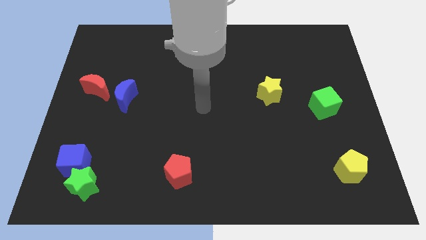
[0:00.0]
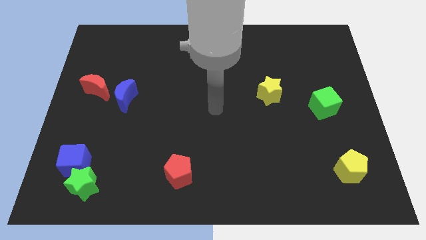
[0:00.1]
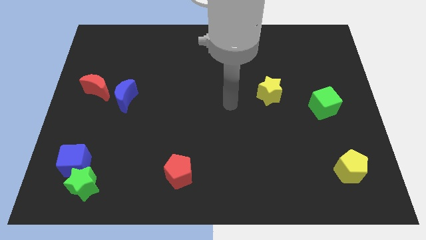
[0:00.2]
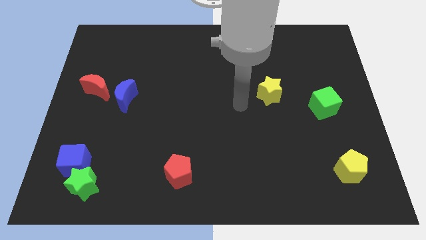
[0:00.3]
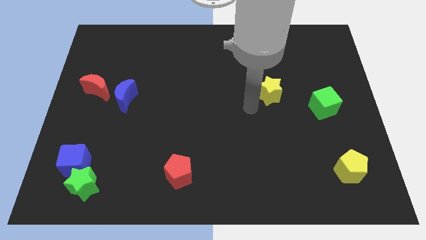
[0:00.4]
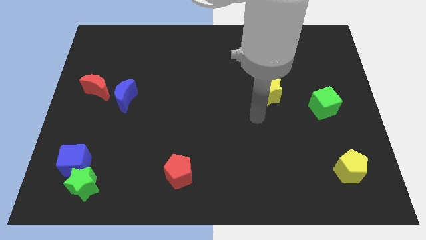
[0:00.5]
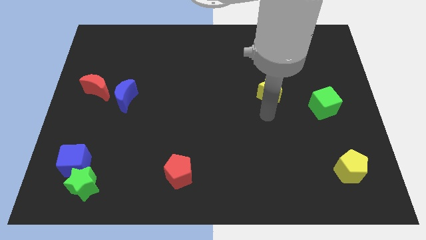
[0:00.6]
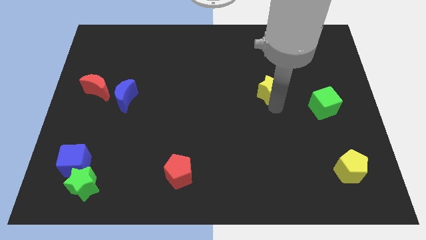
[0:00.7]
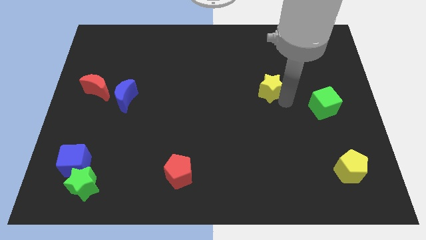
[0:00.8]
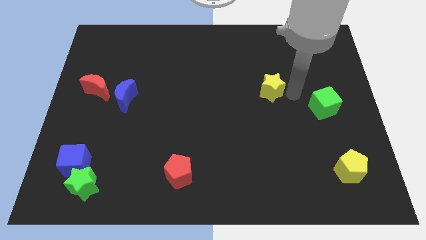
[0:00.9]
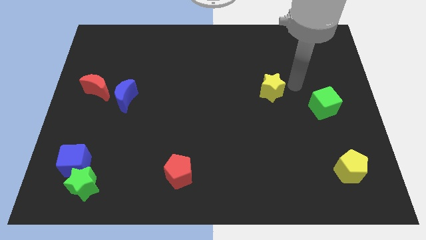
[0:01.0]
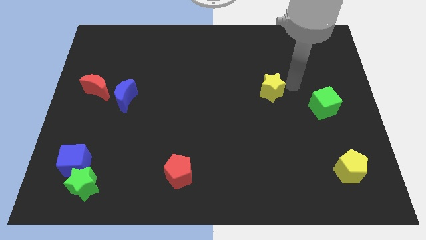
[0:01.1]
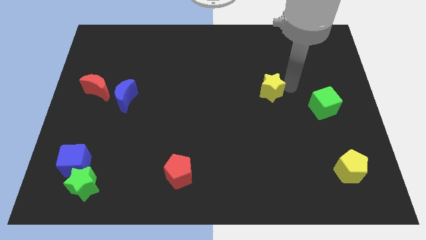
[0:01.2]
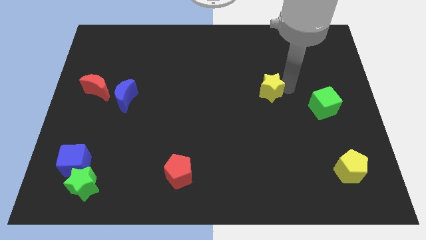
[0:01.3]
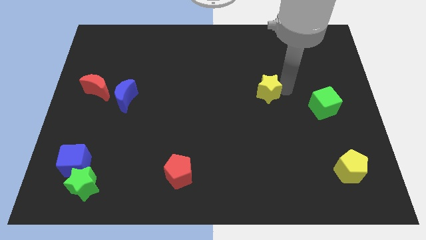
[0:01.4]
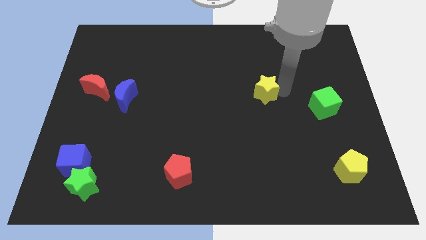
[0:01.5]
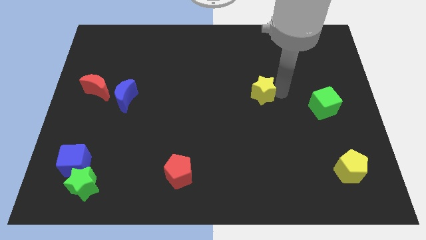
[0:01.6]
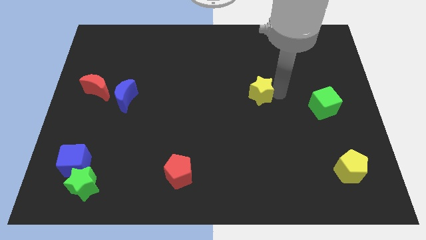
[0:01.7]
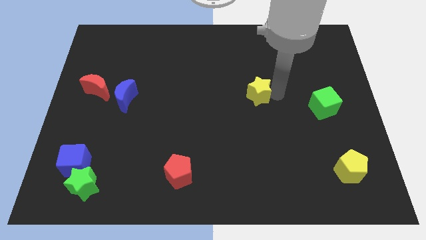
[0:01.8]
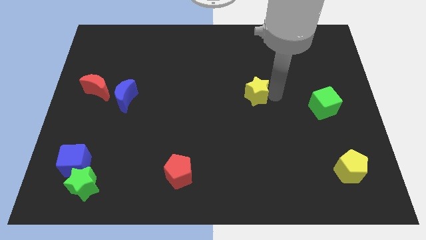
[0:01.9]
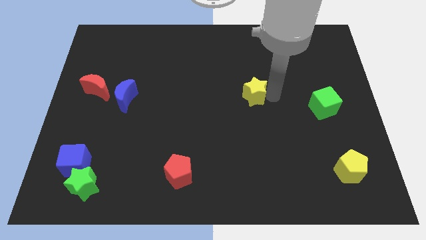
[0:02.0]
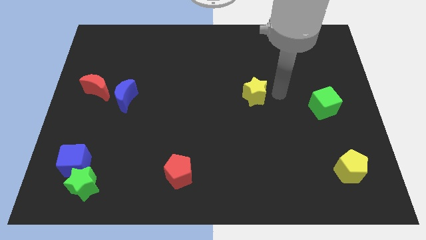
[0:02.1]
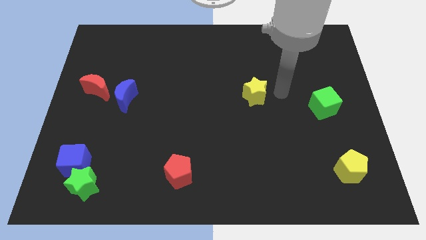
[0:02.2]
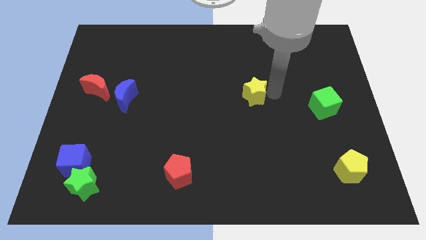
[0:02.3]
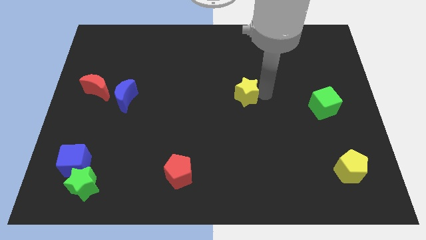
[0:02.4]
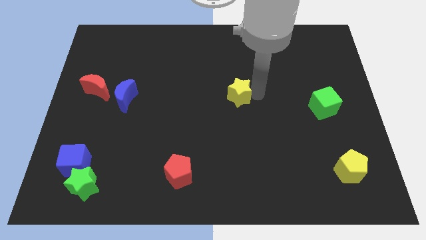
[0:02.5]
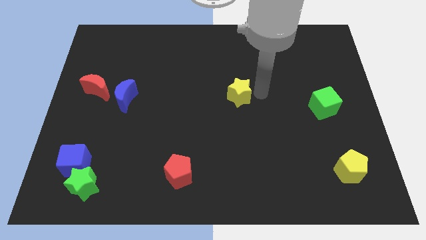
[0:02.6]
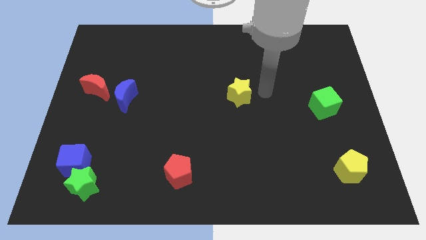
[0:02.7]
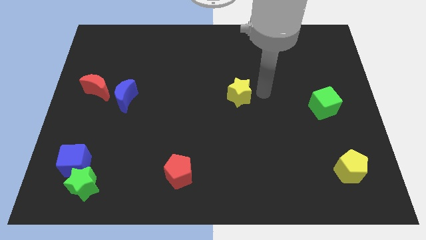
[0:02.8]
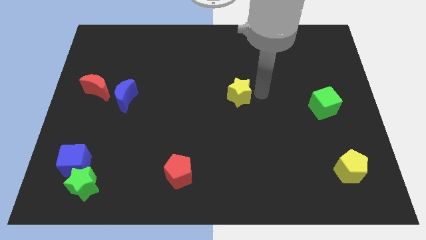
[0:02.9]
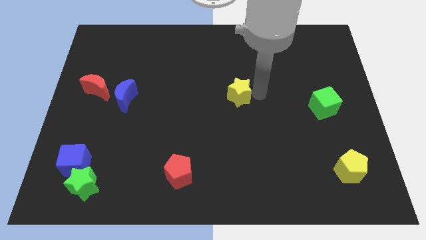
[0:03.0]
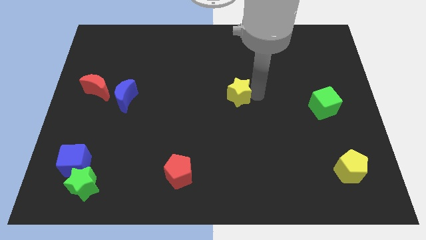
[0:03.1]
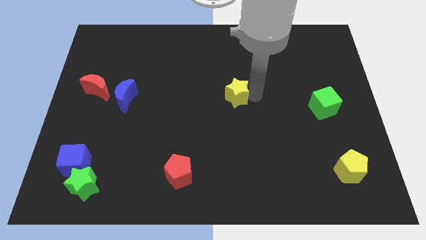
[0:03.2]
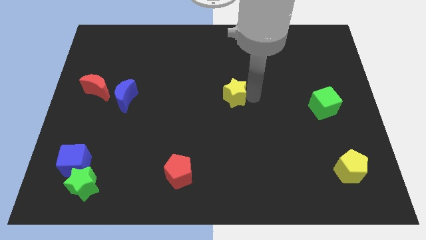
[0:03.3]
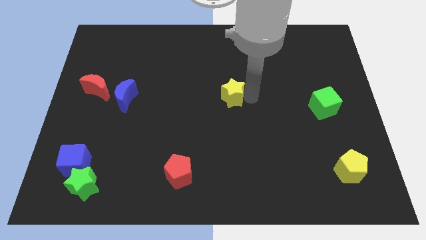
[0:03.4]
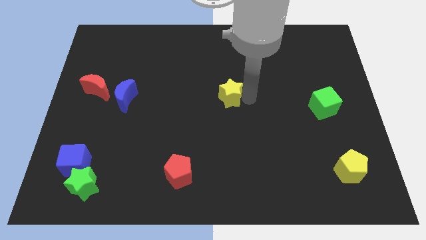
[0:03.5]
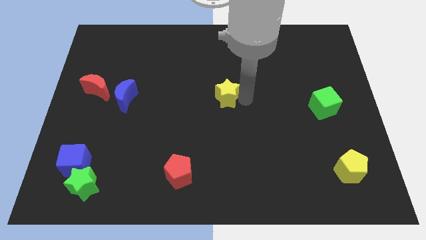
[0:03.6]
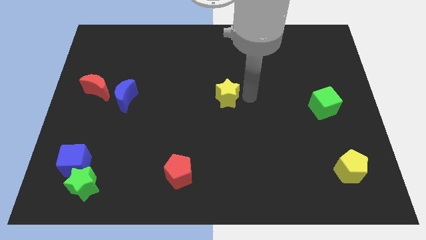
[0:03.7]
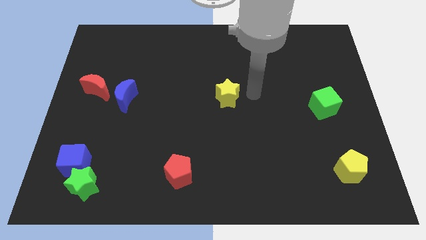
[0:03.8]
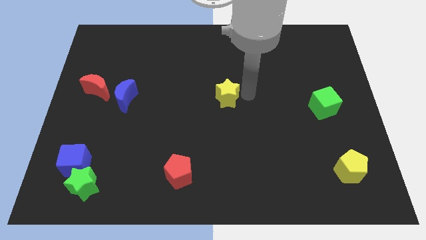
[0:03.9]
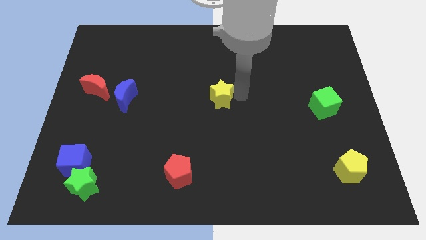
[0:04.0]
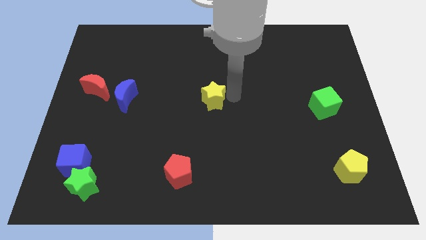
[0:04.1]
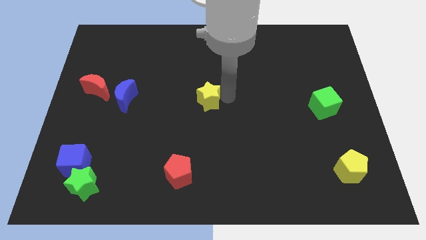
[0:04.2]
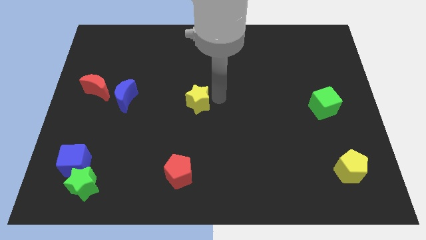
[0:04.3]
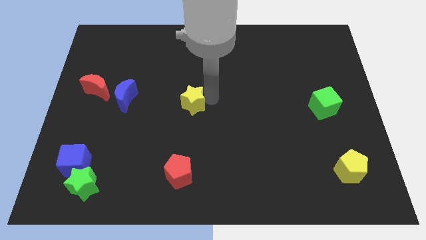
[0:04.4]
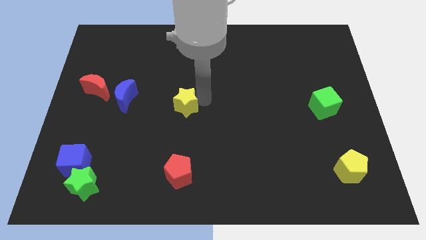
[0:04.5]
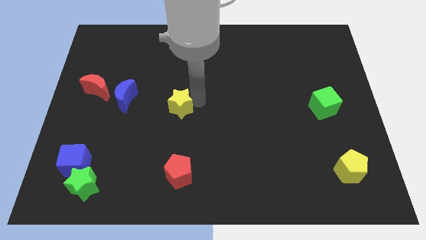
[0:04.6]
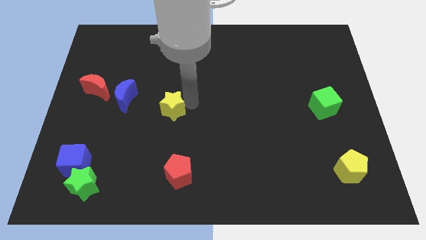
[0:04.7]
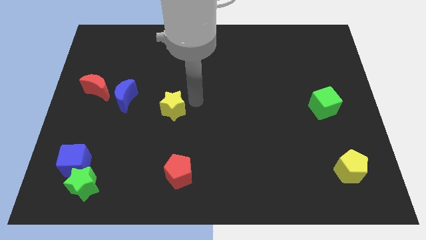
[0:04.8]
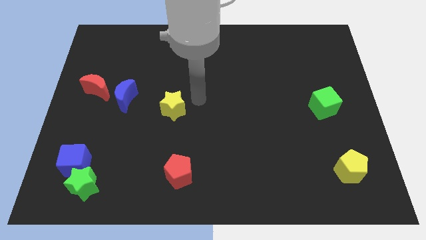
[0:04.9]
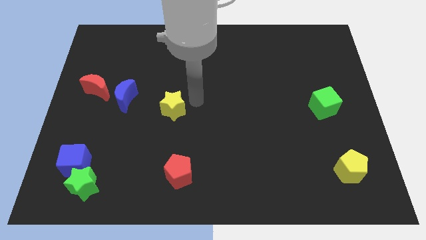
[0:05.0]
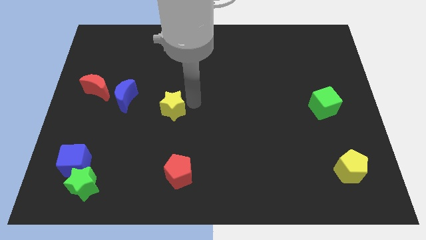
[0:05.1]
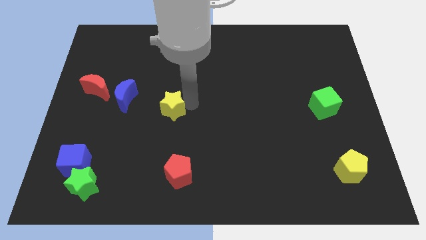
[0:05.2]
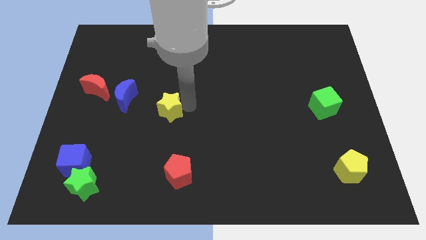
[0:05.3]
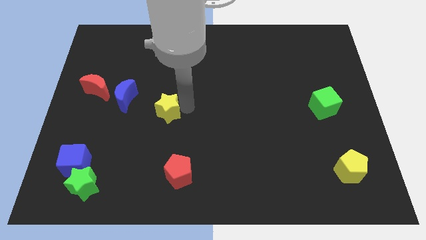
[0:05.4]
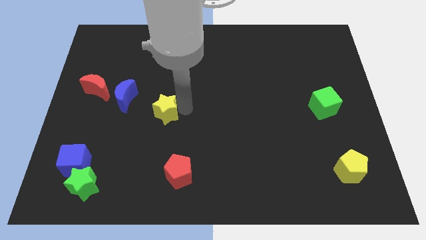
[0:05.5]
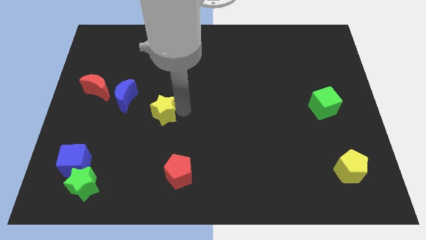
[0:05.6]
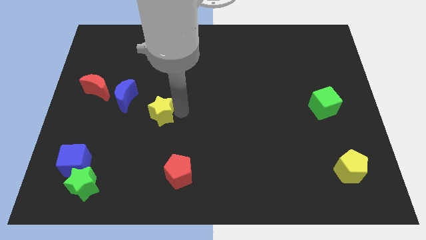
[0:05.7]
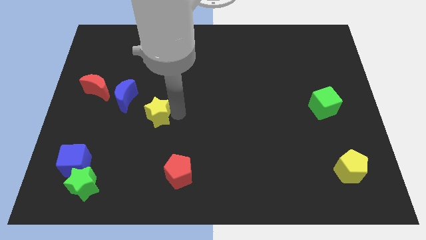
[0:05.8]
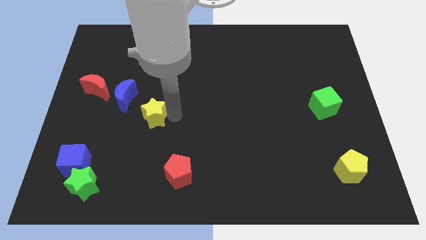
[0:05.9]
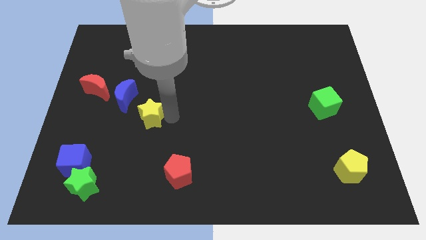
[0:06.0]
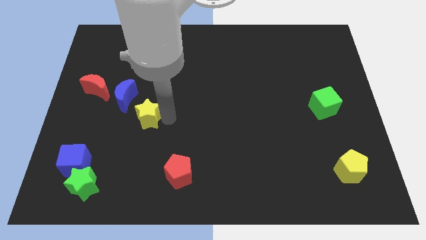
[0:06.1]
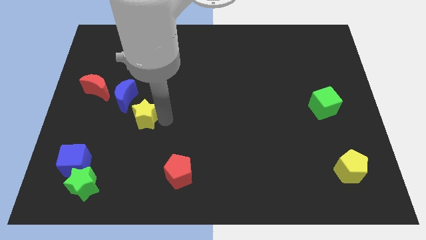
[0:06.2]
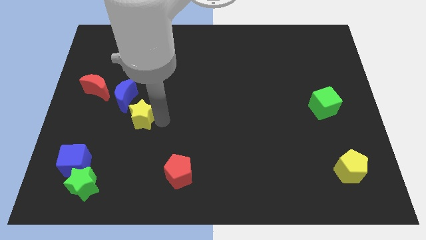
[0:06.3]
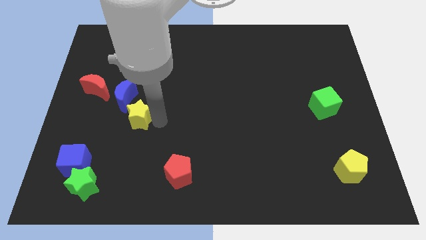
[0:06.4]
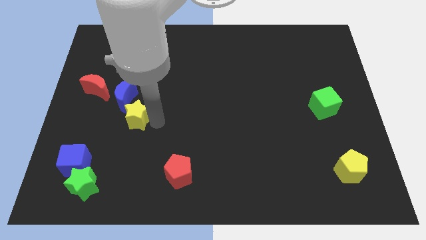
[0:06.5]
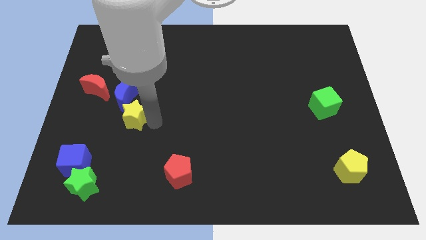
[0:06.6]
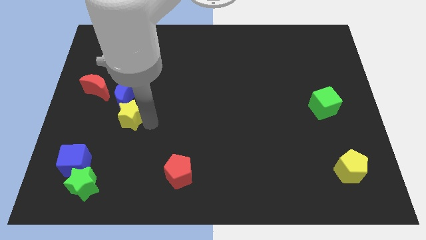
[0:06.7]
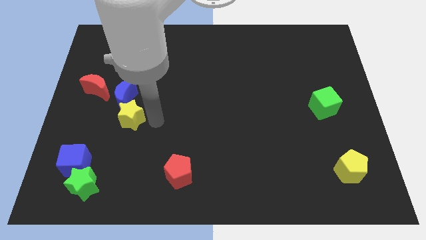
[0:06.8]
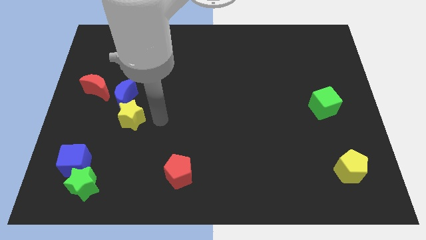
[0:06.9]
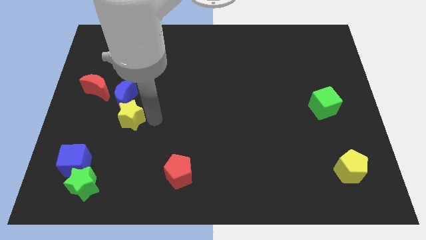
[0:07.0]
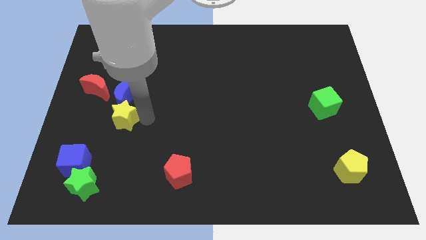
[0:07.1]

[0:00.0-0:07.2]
put the yellow star diagonally down and to the left of the blue moon
